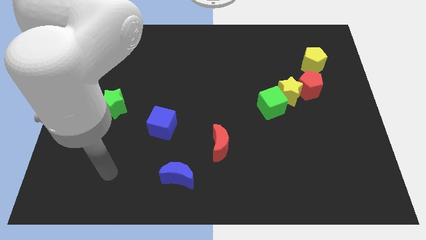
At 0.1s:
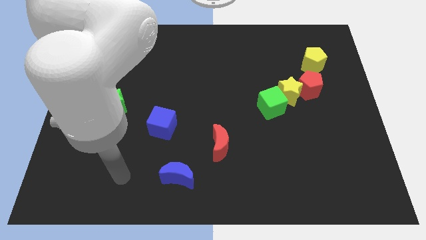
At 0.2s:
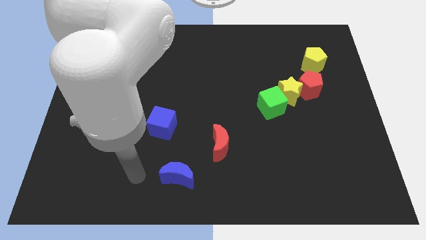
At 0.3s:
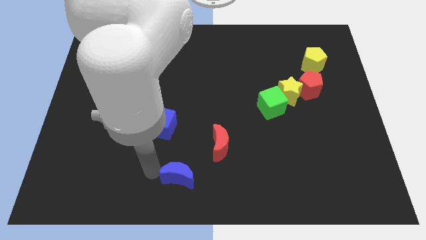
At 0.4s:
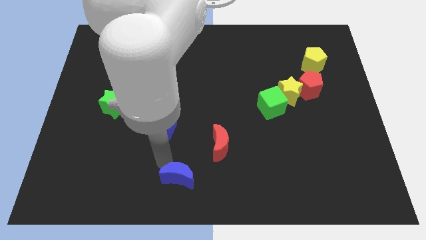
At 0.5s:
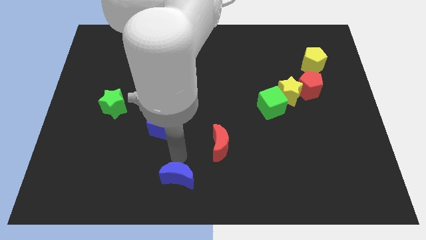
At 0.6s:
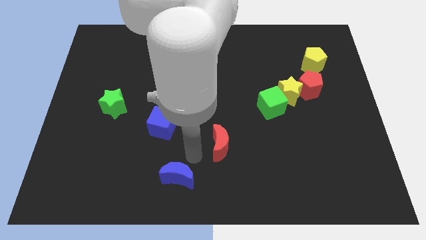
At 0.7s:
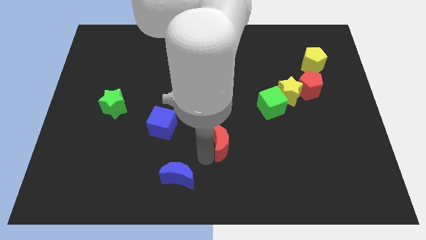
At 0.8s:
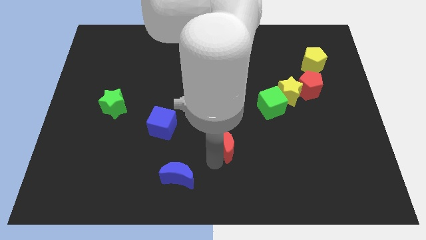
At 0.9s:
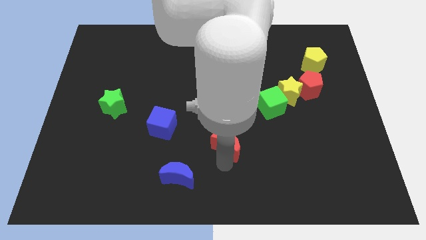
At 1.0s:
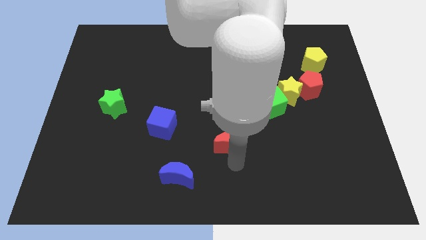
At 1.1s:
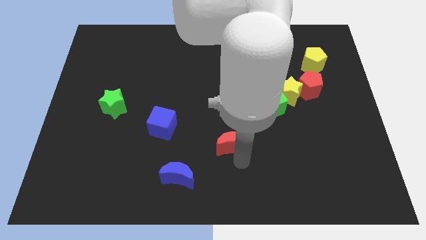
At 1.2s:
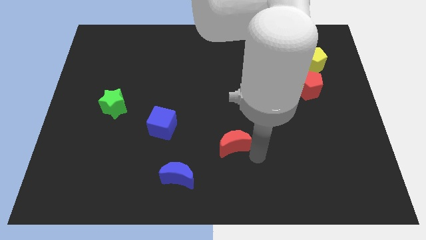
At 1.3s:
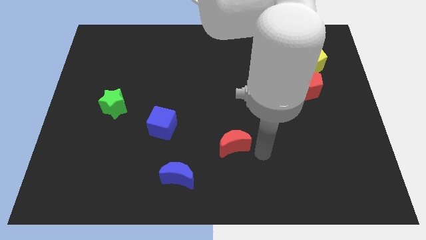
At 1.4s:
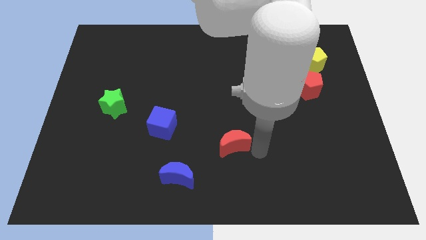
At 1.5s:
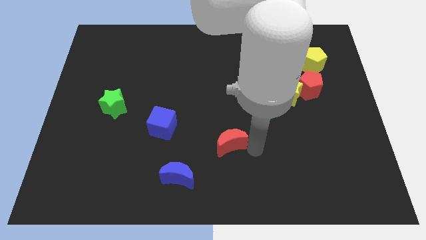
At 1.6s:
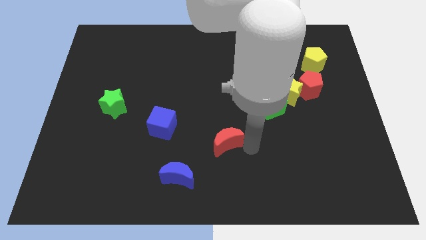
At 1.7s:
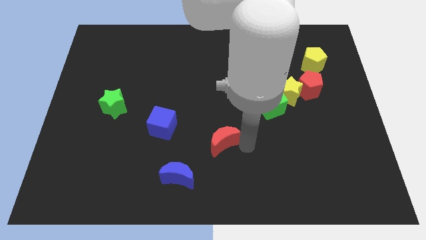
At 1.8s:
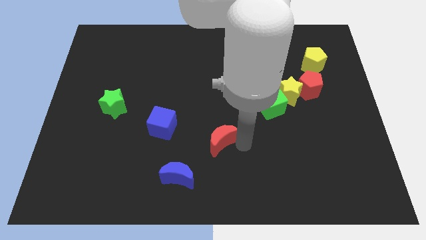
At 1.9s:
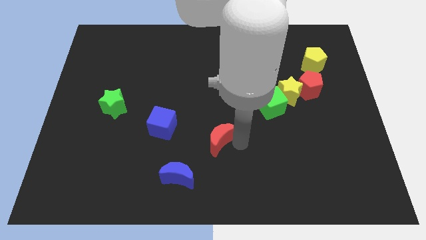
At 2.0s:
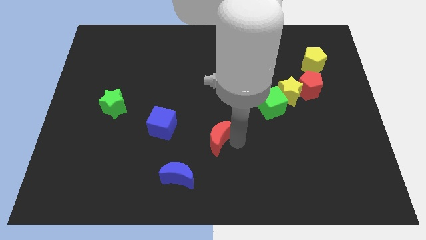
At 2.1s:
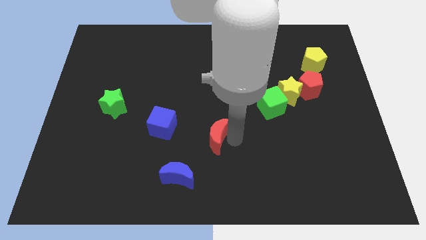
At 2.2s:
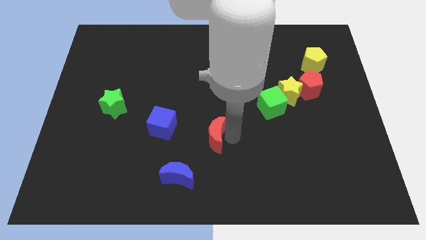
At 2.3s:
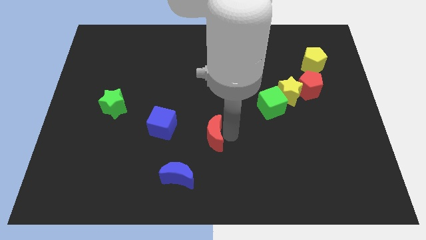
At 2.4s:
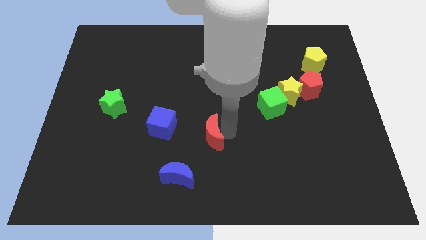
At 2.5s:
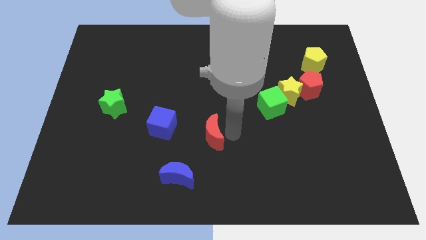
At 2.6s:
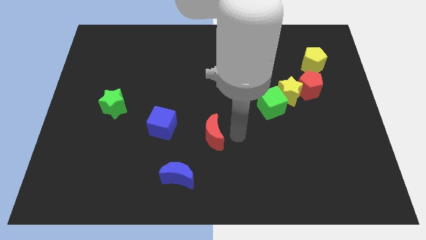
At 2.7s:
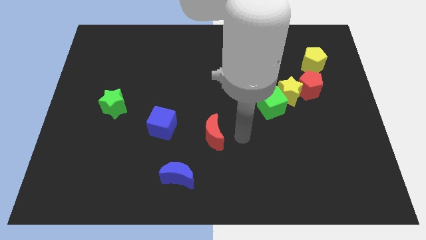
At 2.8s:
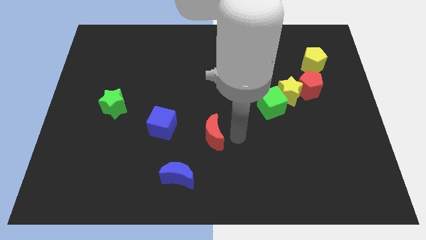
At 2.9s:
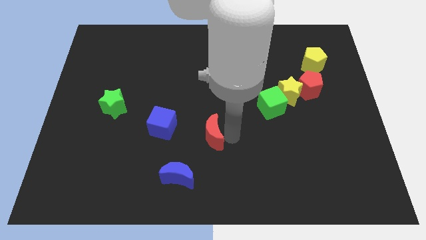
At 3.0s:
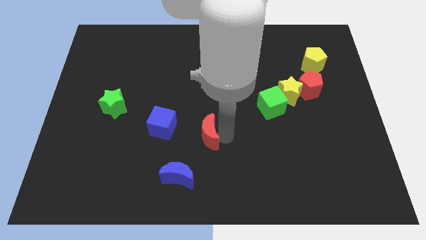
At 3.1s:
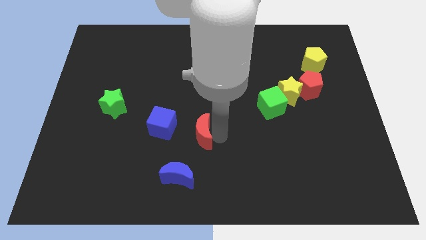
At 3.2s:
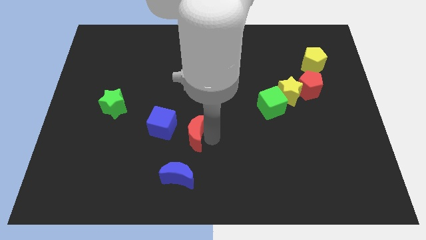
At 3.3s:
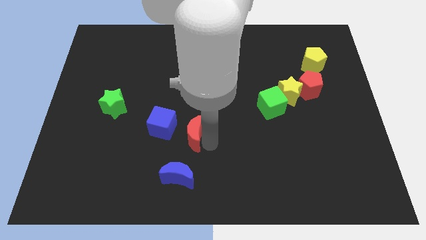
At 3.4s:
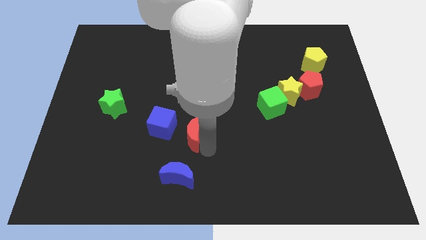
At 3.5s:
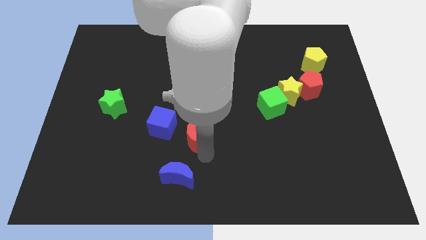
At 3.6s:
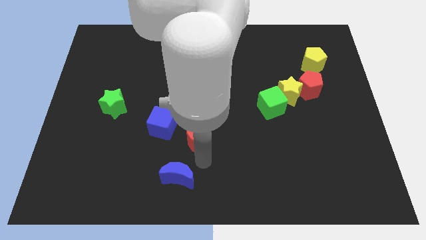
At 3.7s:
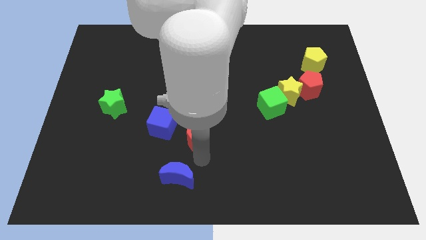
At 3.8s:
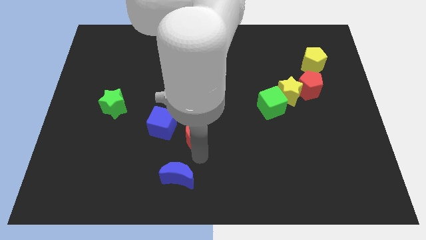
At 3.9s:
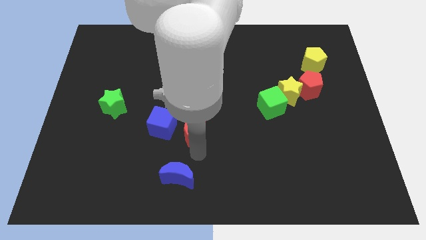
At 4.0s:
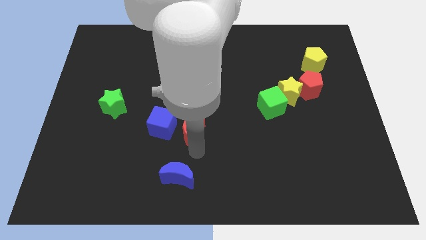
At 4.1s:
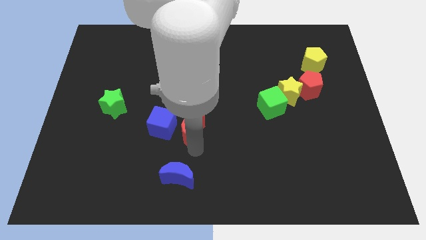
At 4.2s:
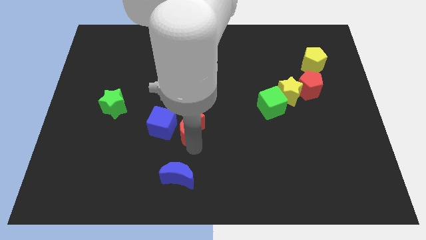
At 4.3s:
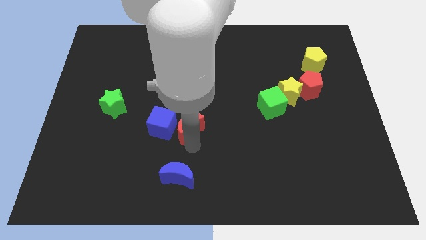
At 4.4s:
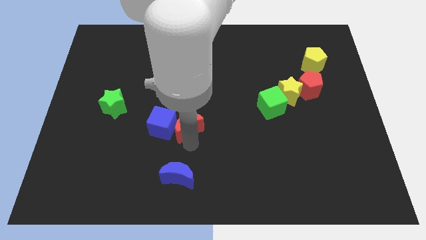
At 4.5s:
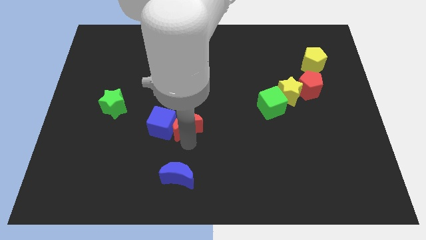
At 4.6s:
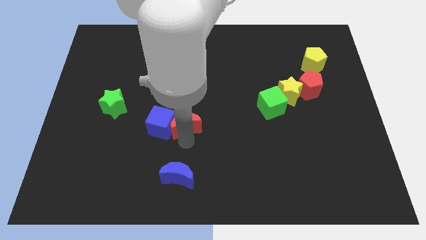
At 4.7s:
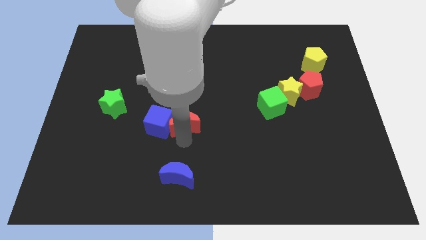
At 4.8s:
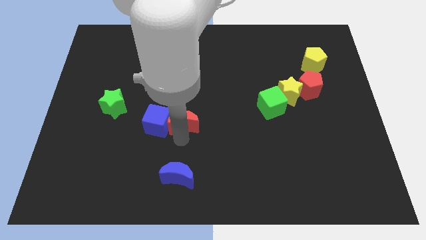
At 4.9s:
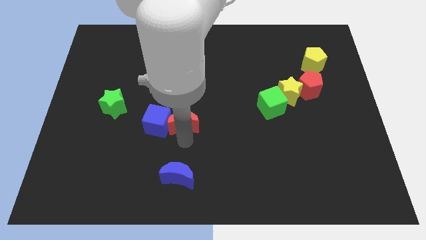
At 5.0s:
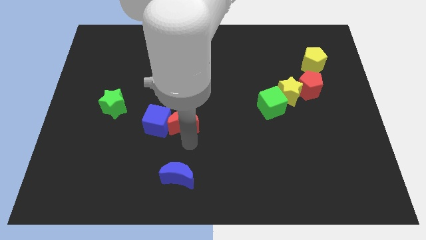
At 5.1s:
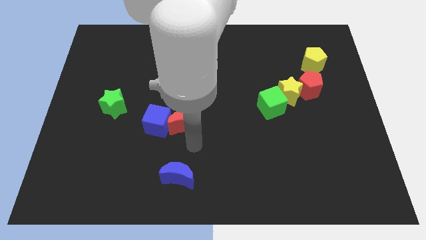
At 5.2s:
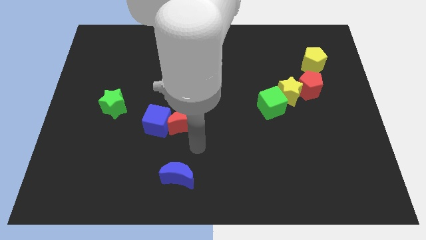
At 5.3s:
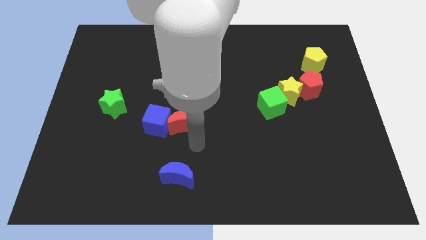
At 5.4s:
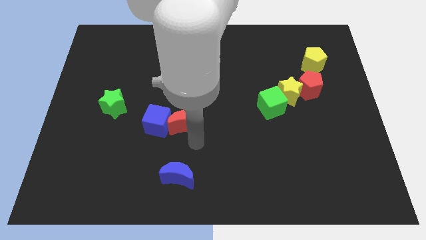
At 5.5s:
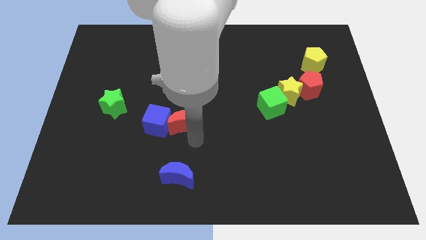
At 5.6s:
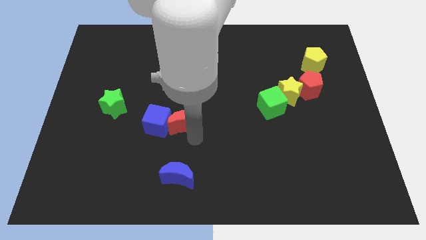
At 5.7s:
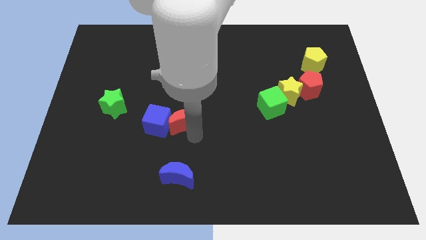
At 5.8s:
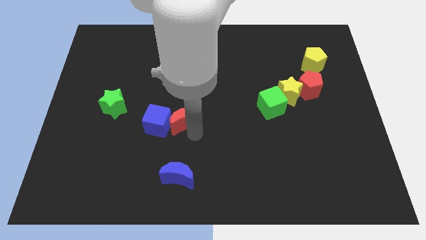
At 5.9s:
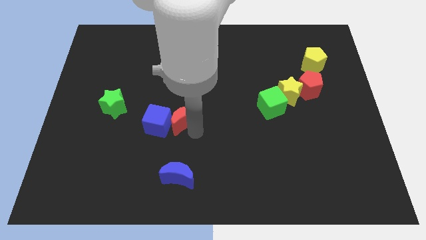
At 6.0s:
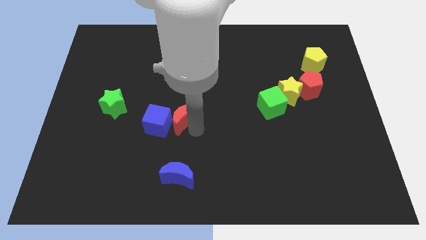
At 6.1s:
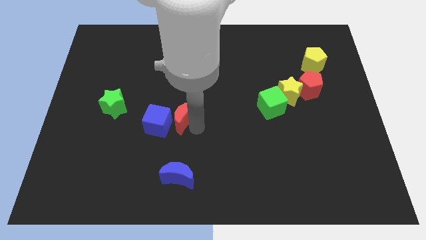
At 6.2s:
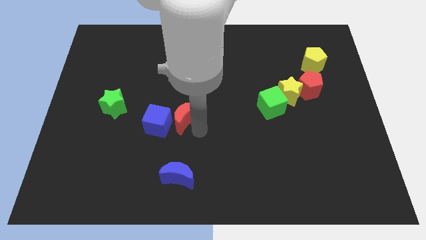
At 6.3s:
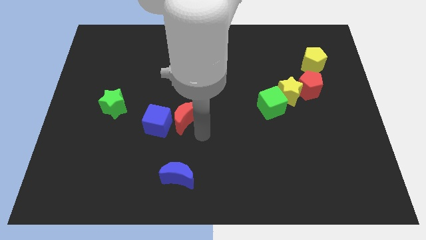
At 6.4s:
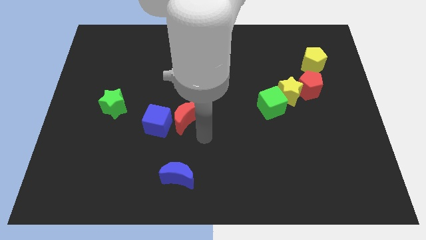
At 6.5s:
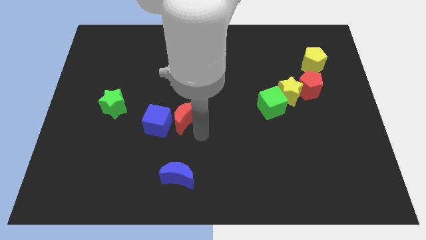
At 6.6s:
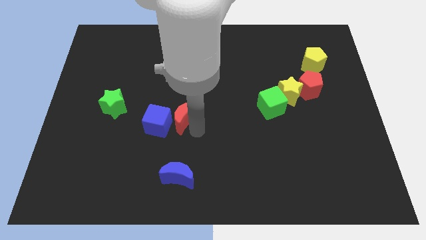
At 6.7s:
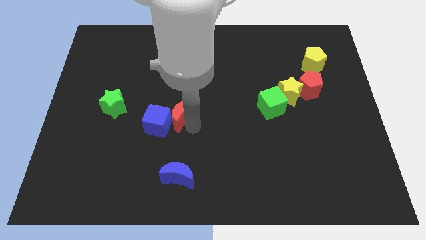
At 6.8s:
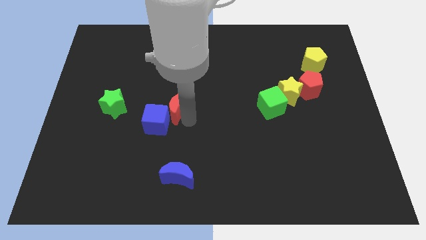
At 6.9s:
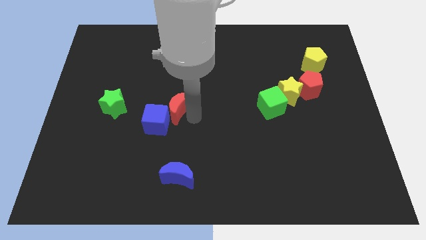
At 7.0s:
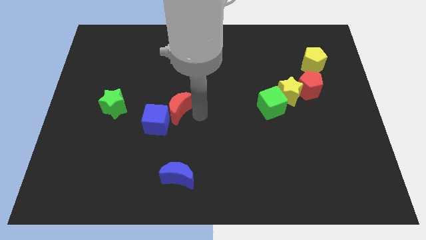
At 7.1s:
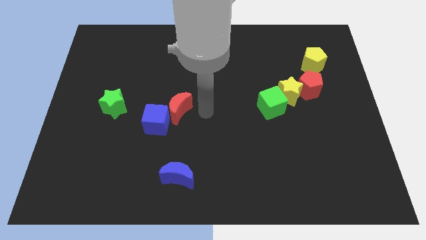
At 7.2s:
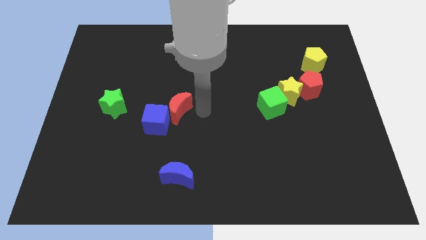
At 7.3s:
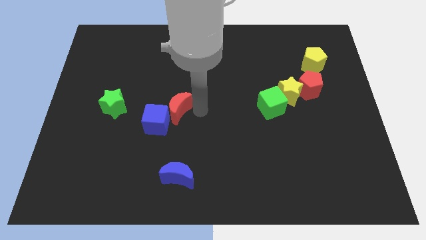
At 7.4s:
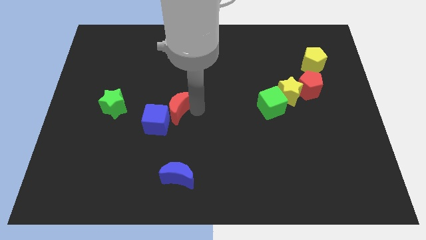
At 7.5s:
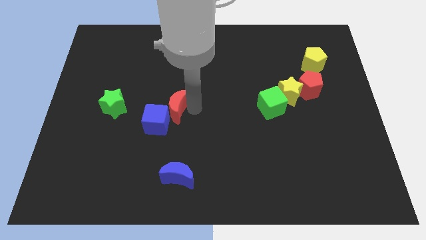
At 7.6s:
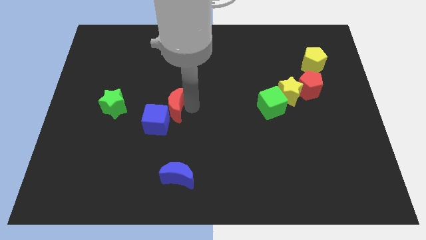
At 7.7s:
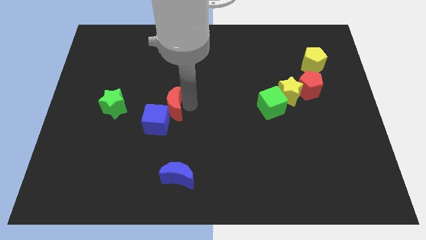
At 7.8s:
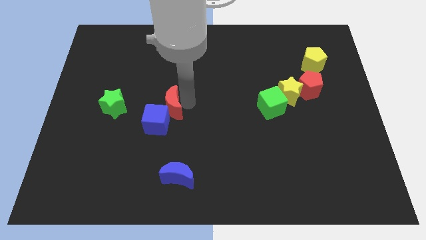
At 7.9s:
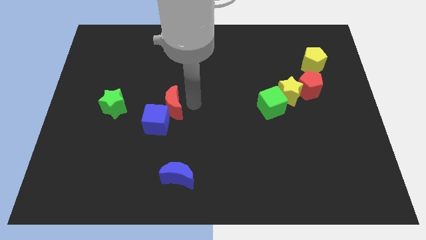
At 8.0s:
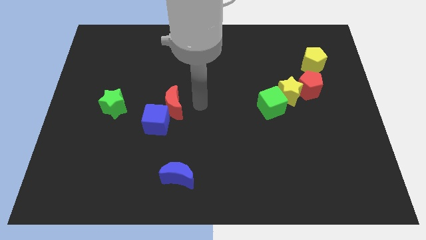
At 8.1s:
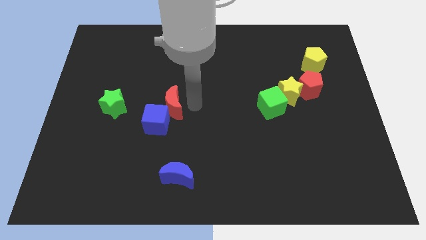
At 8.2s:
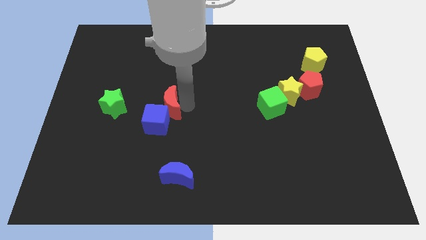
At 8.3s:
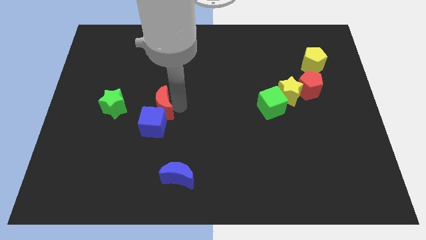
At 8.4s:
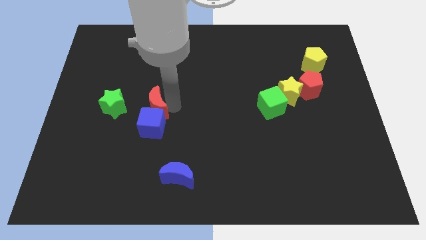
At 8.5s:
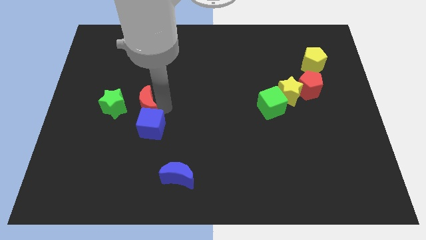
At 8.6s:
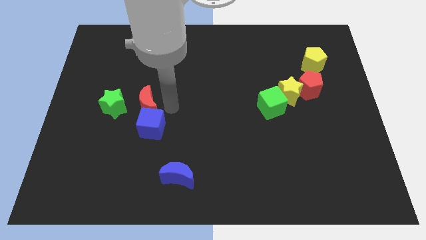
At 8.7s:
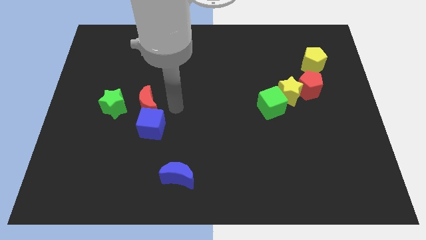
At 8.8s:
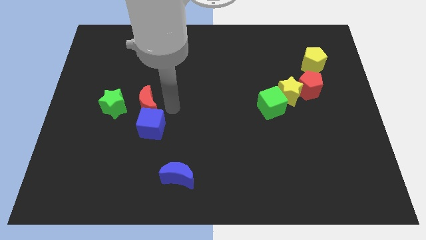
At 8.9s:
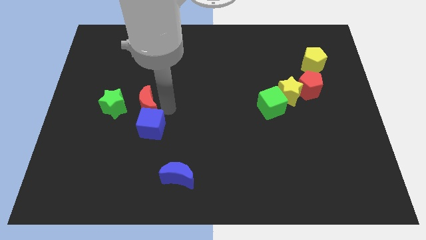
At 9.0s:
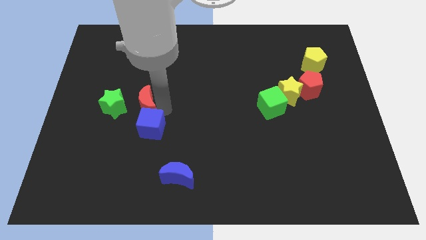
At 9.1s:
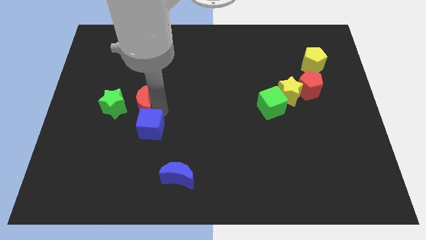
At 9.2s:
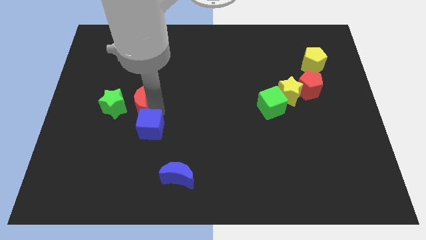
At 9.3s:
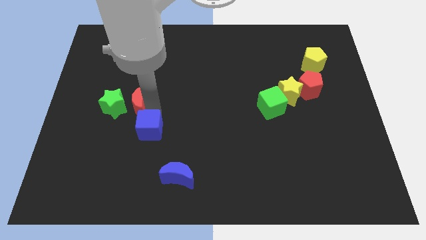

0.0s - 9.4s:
push the red moon next to the green star
